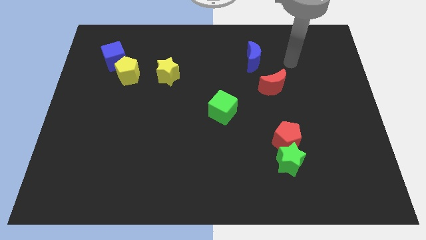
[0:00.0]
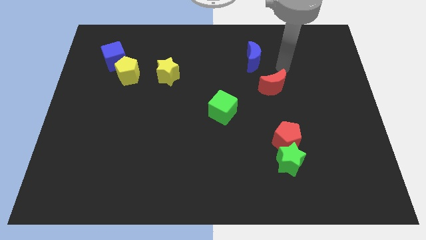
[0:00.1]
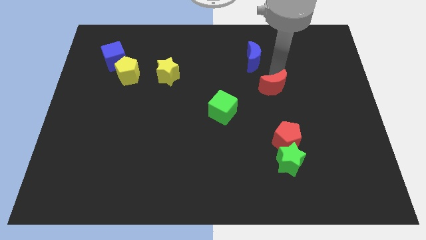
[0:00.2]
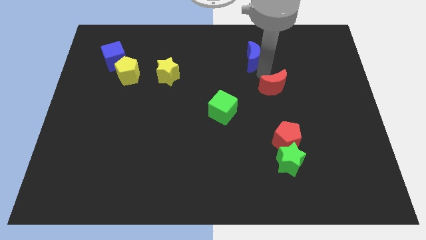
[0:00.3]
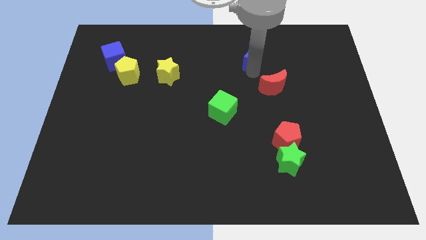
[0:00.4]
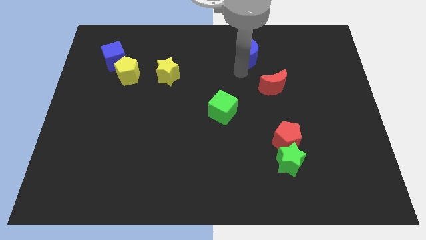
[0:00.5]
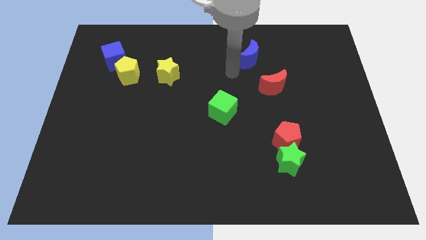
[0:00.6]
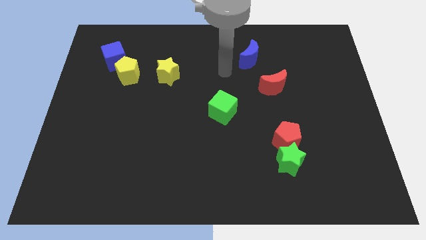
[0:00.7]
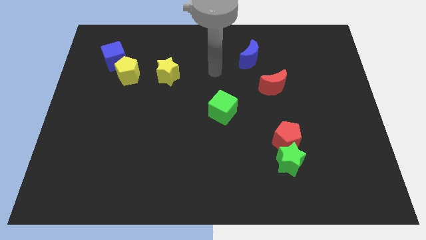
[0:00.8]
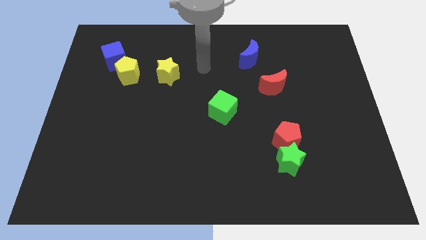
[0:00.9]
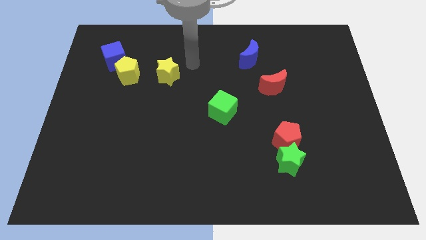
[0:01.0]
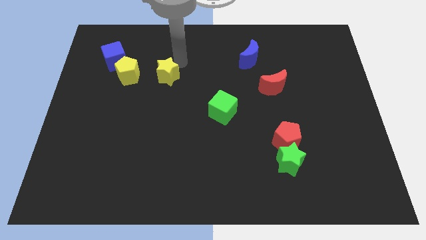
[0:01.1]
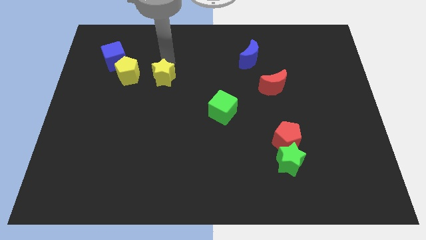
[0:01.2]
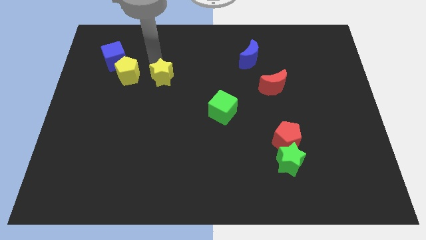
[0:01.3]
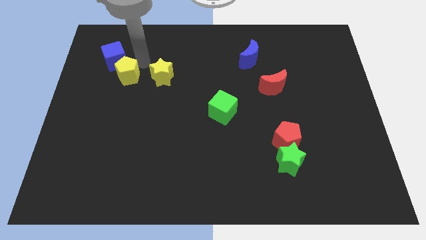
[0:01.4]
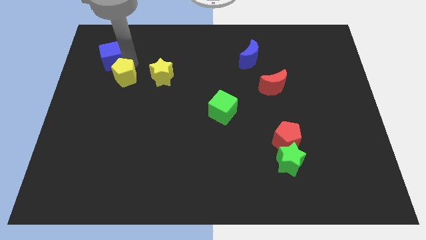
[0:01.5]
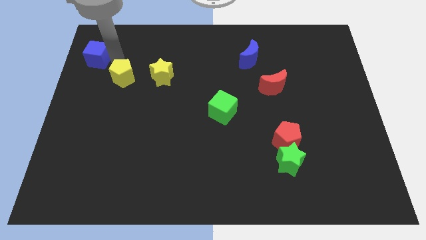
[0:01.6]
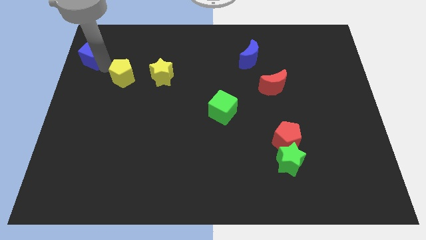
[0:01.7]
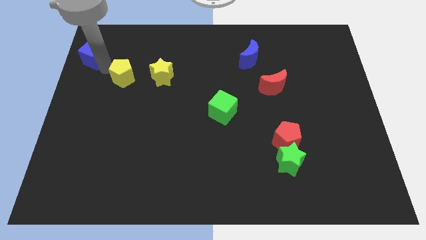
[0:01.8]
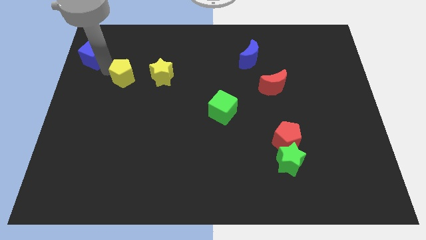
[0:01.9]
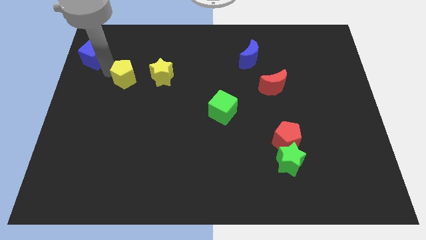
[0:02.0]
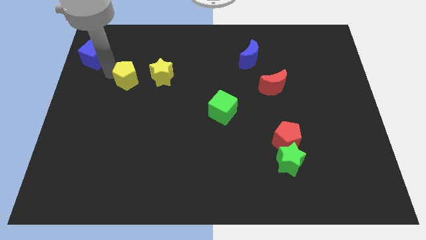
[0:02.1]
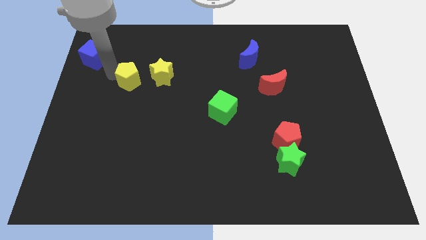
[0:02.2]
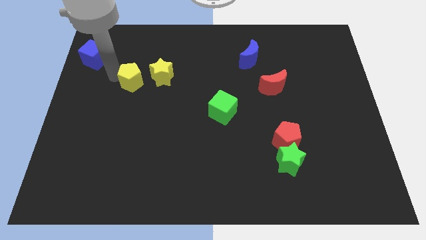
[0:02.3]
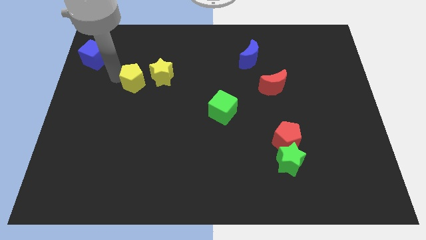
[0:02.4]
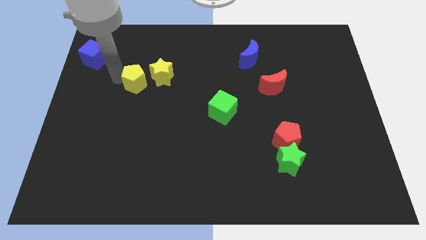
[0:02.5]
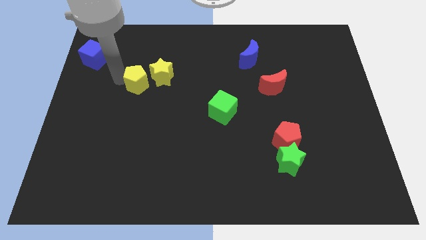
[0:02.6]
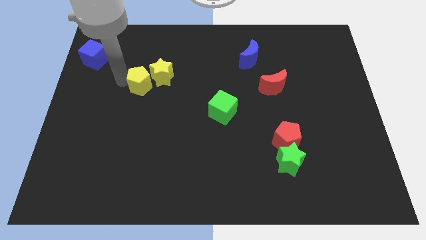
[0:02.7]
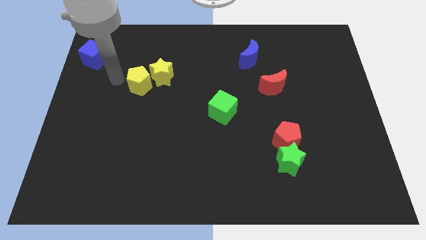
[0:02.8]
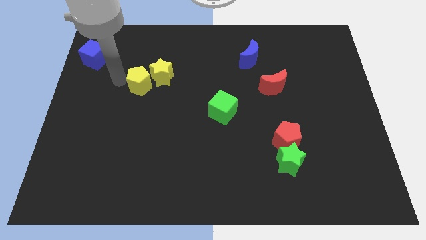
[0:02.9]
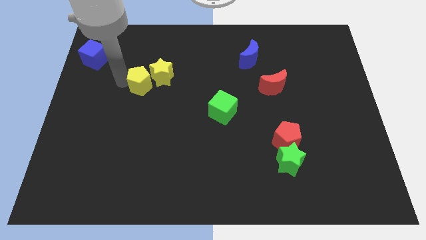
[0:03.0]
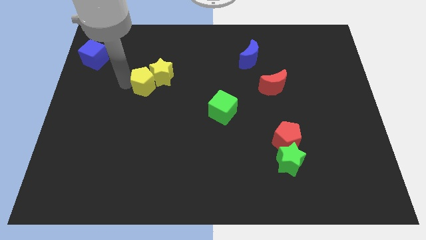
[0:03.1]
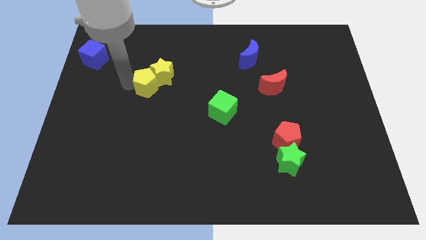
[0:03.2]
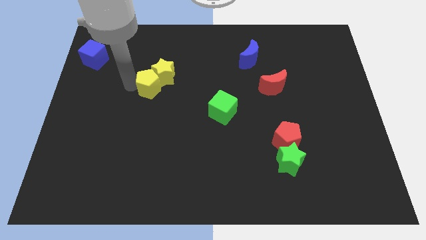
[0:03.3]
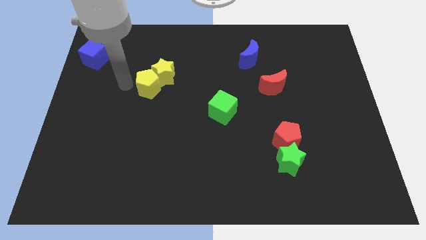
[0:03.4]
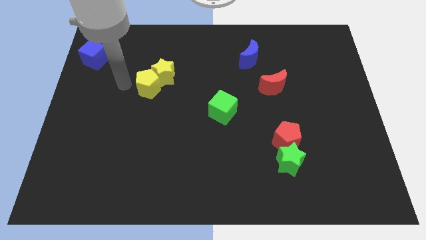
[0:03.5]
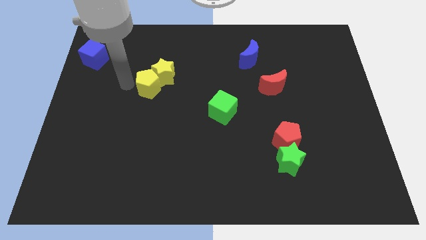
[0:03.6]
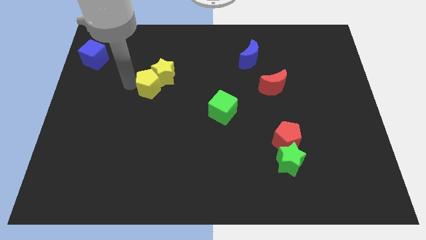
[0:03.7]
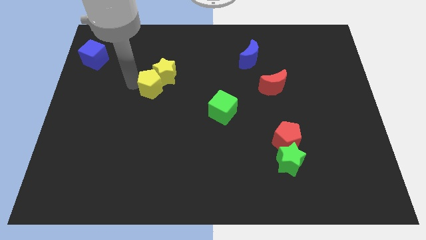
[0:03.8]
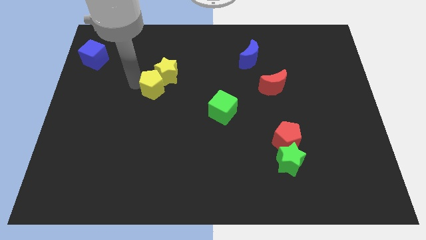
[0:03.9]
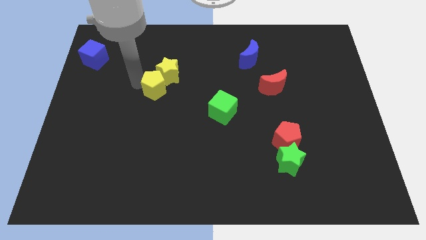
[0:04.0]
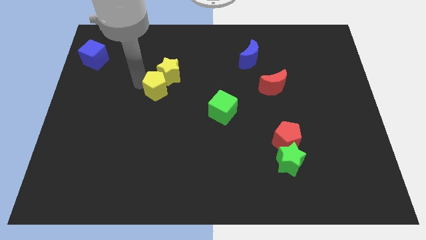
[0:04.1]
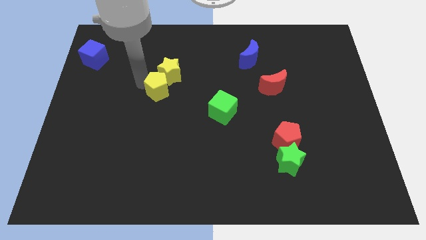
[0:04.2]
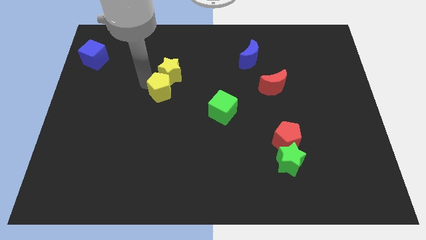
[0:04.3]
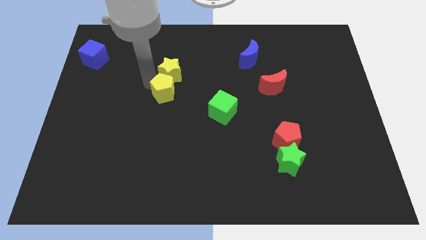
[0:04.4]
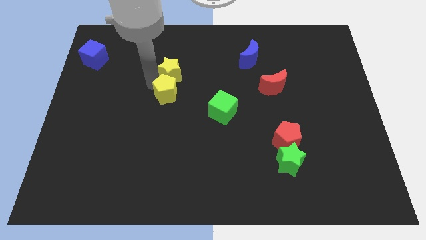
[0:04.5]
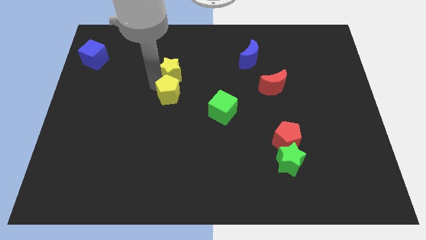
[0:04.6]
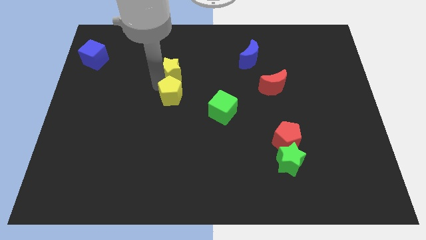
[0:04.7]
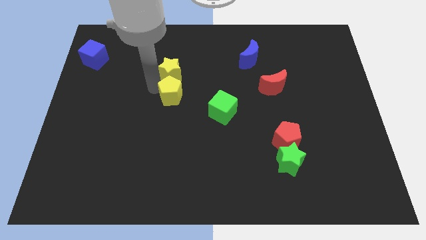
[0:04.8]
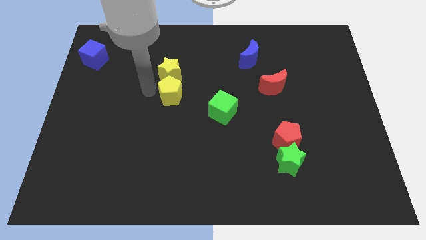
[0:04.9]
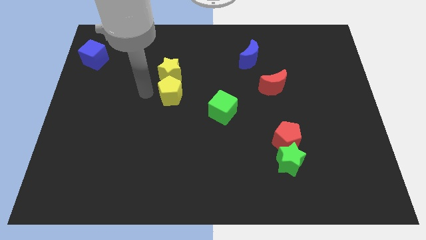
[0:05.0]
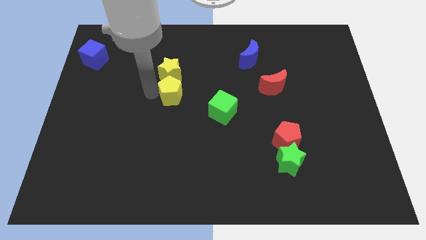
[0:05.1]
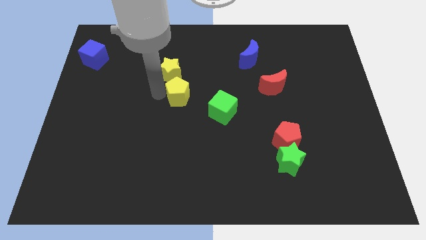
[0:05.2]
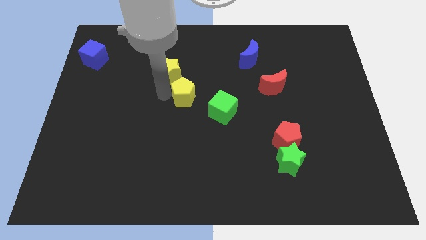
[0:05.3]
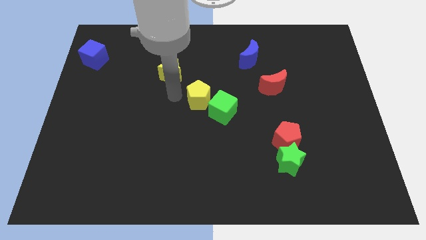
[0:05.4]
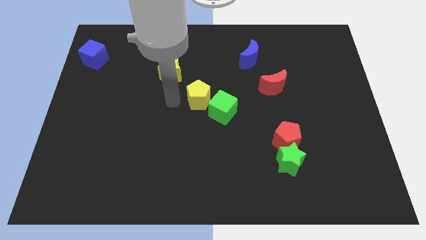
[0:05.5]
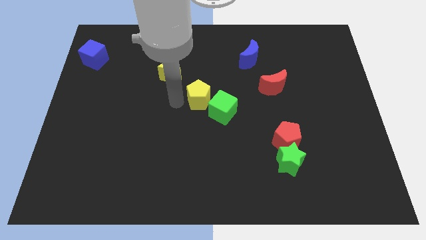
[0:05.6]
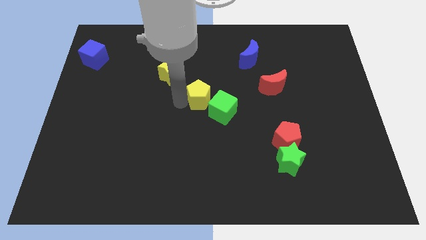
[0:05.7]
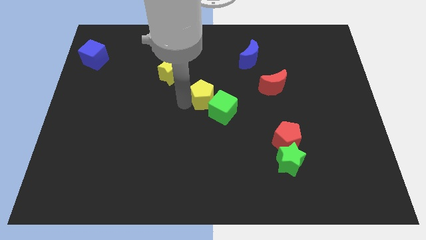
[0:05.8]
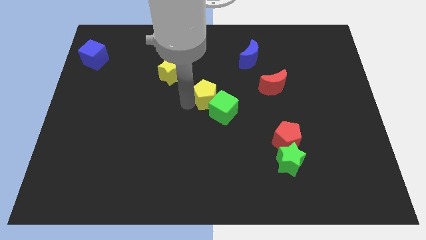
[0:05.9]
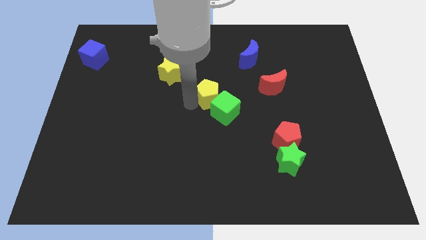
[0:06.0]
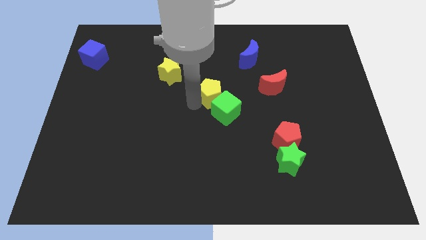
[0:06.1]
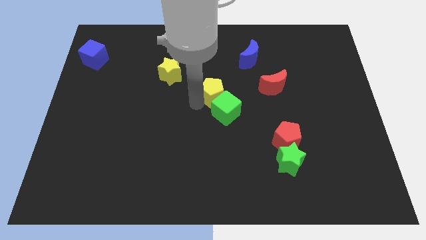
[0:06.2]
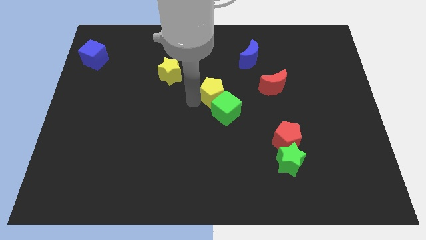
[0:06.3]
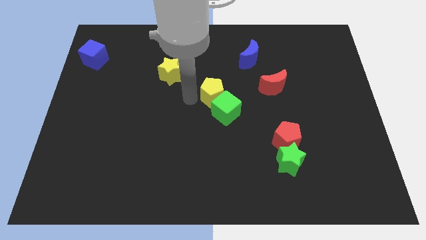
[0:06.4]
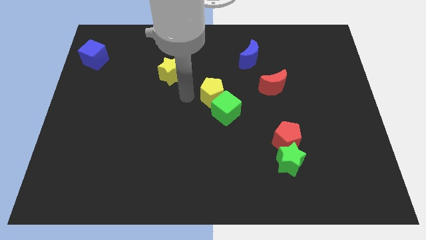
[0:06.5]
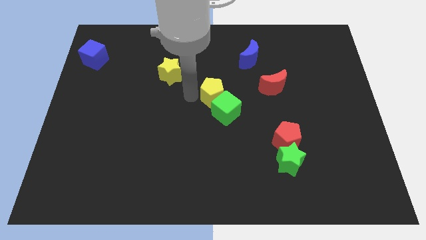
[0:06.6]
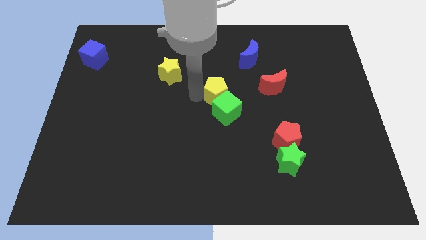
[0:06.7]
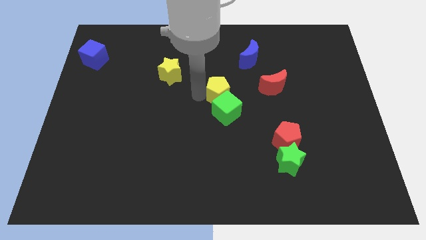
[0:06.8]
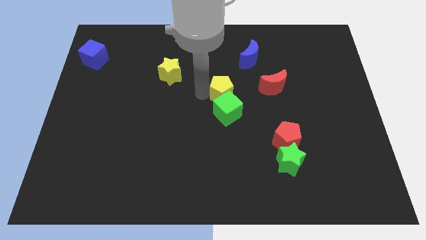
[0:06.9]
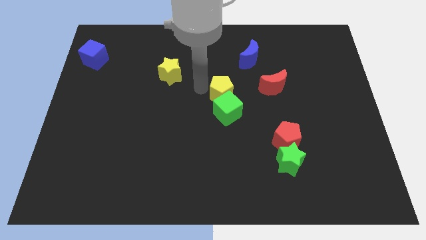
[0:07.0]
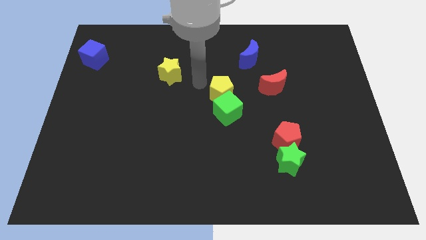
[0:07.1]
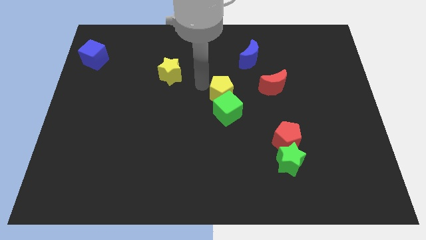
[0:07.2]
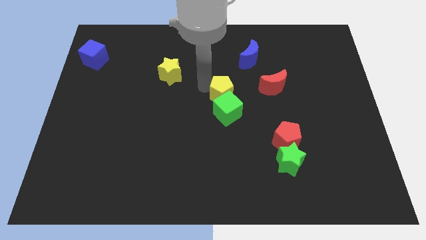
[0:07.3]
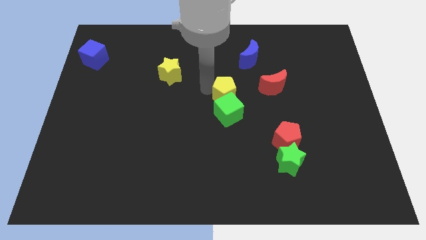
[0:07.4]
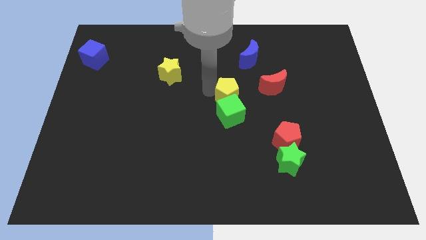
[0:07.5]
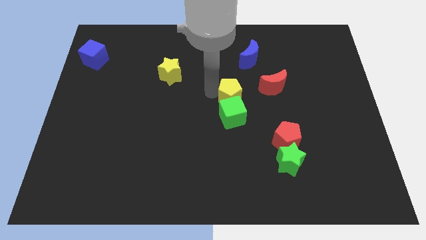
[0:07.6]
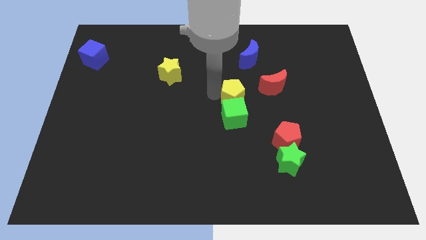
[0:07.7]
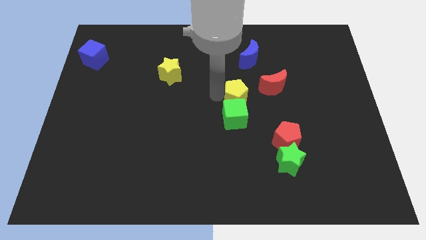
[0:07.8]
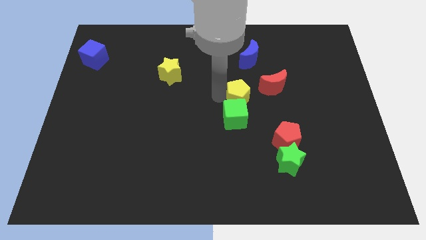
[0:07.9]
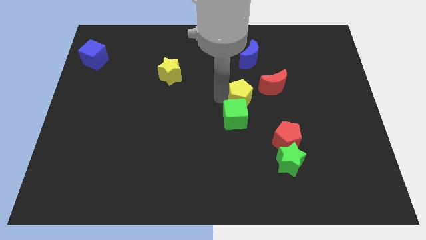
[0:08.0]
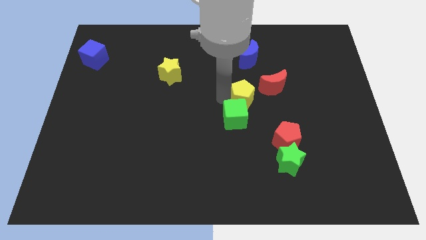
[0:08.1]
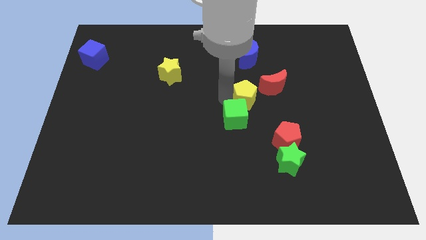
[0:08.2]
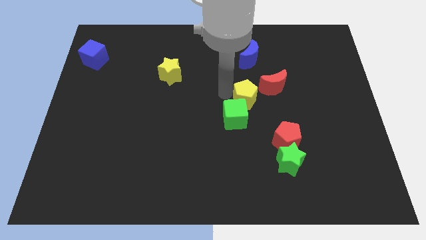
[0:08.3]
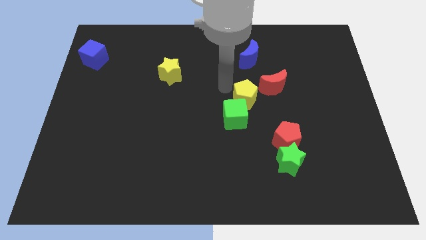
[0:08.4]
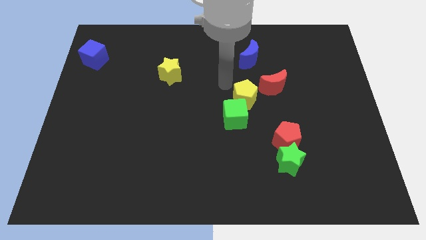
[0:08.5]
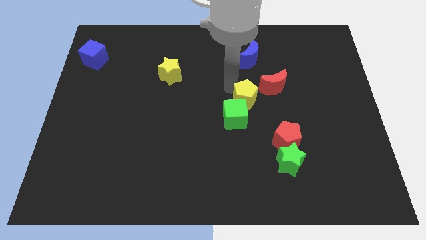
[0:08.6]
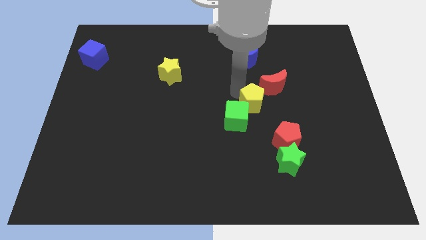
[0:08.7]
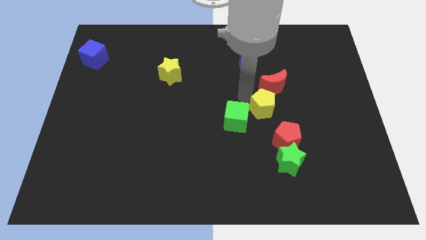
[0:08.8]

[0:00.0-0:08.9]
slide the yellow pentagon to the bottom of the red moon
